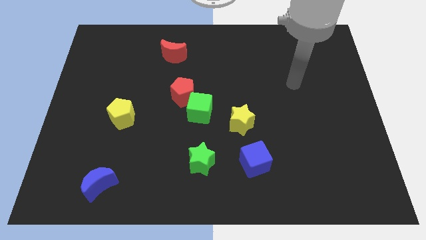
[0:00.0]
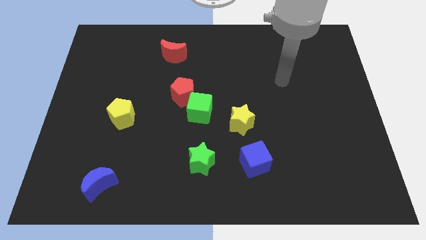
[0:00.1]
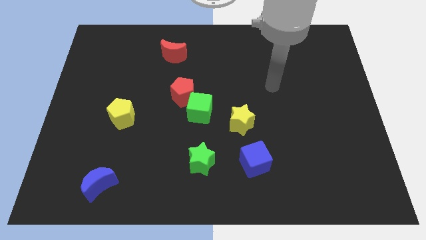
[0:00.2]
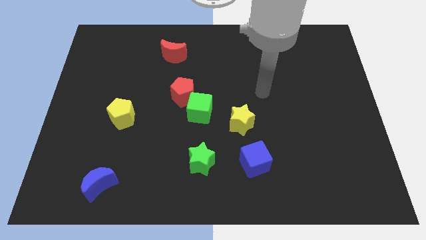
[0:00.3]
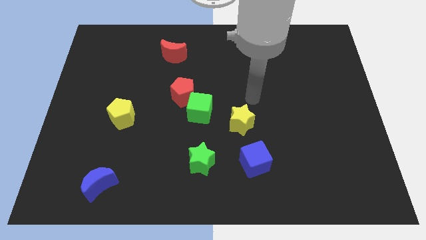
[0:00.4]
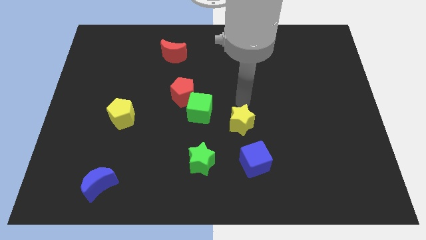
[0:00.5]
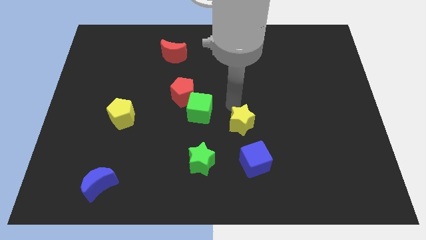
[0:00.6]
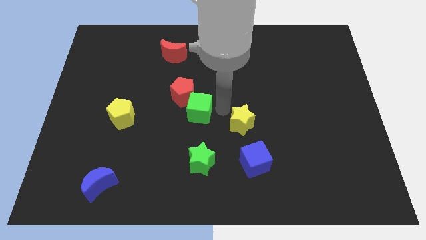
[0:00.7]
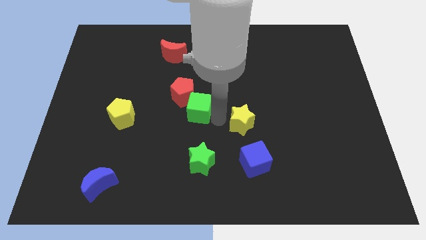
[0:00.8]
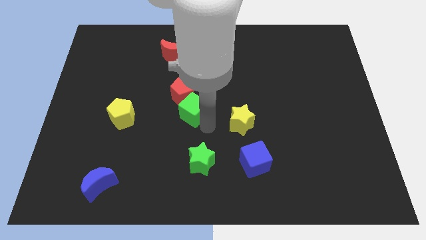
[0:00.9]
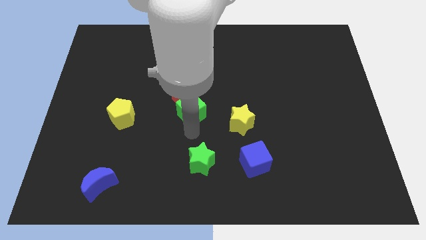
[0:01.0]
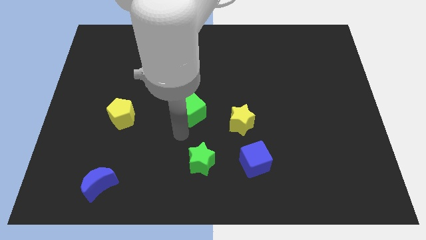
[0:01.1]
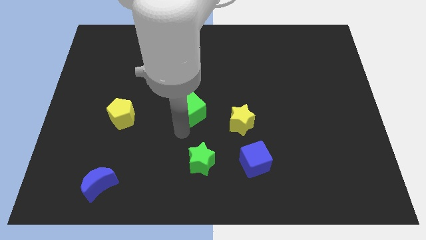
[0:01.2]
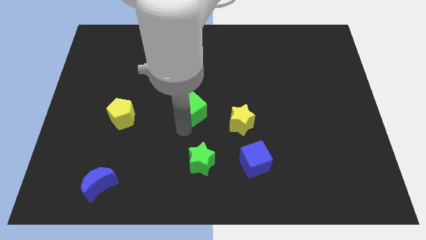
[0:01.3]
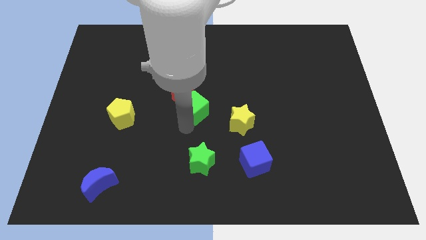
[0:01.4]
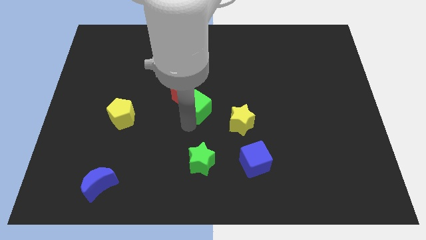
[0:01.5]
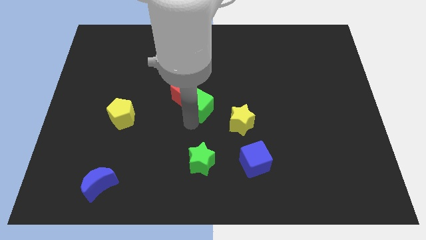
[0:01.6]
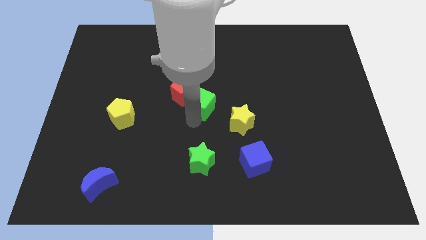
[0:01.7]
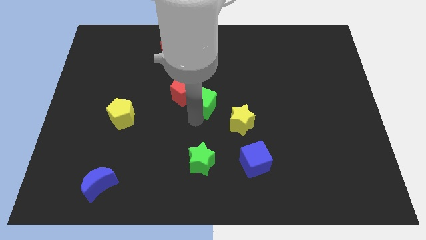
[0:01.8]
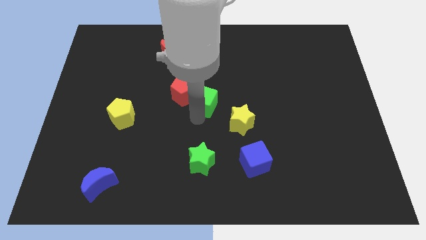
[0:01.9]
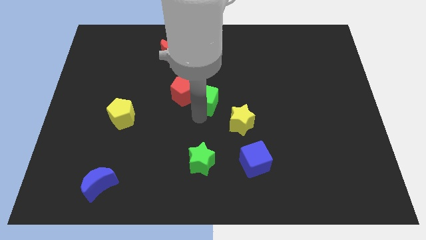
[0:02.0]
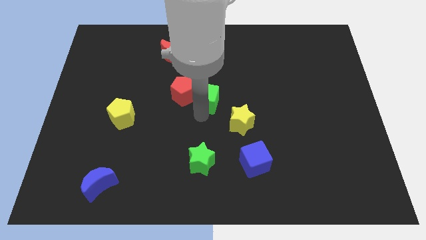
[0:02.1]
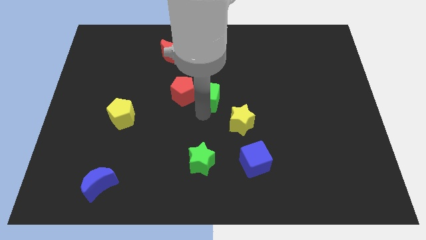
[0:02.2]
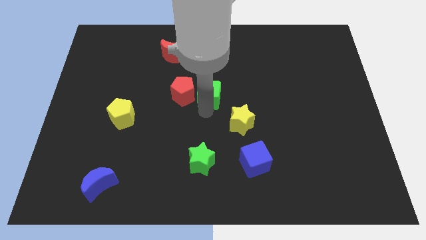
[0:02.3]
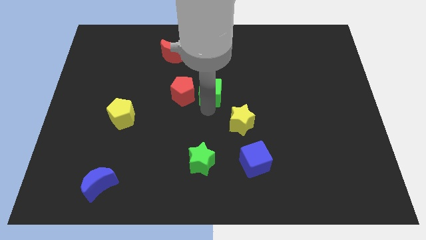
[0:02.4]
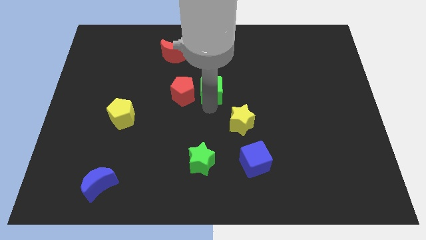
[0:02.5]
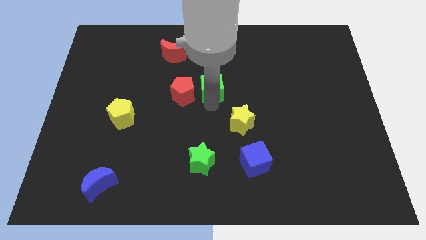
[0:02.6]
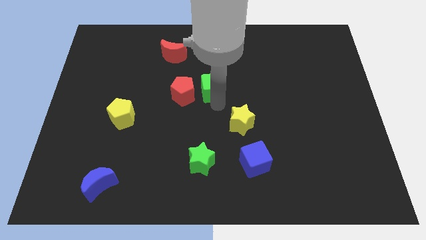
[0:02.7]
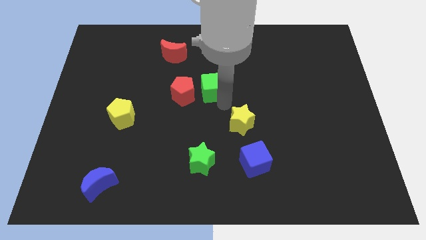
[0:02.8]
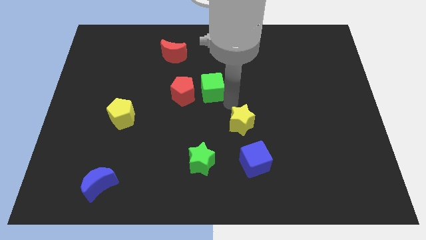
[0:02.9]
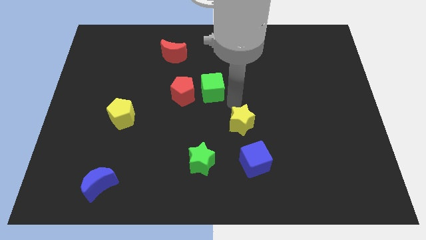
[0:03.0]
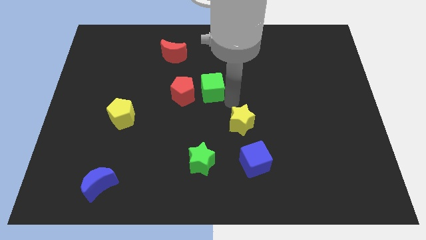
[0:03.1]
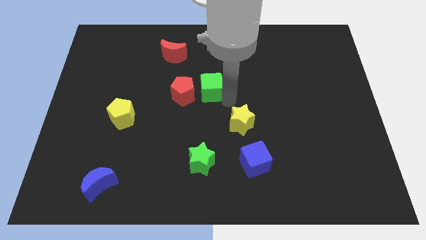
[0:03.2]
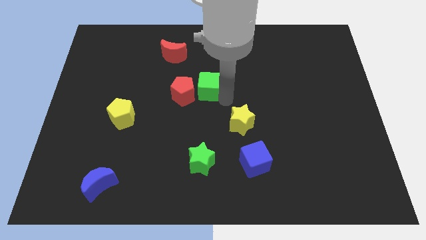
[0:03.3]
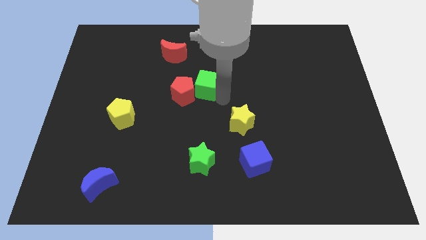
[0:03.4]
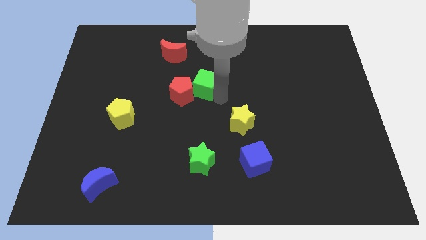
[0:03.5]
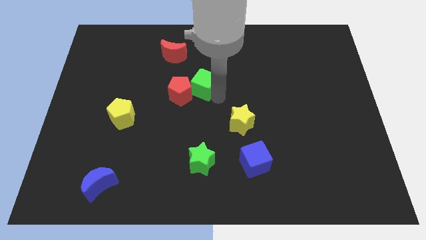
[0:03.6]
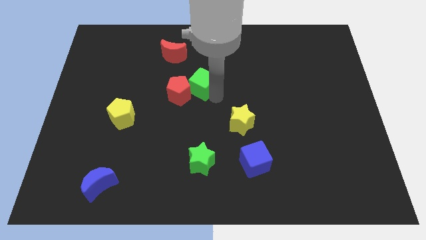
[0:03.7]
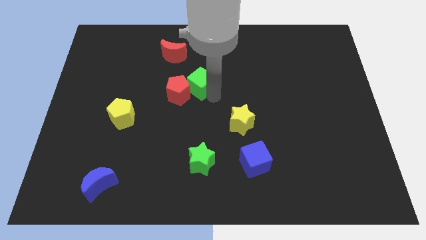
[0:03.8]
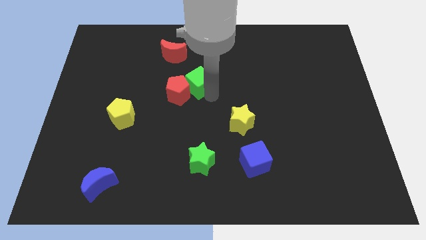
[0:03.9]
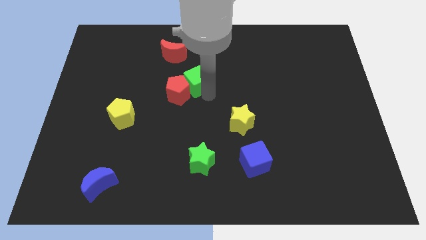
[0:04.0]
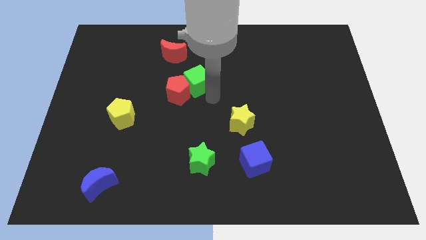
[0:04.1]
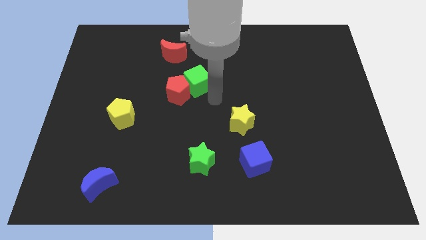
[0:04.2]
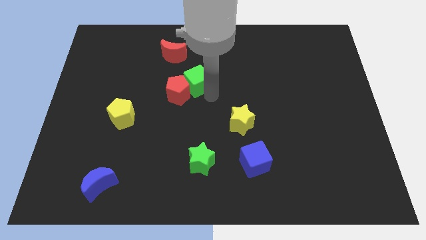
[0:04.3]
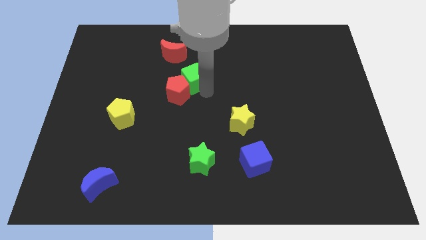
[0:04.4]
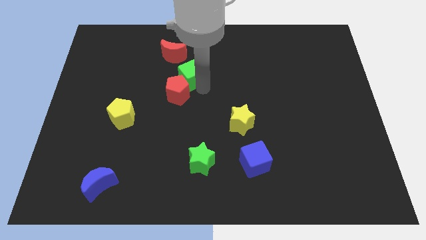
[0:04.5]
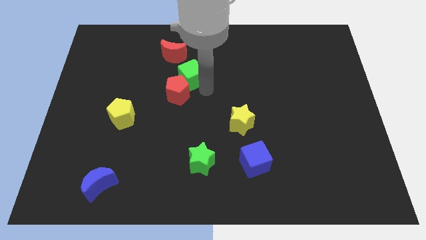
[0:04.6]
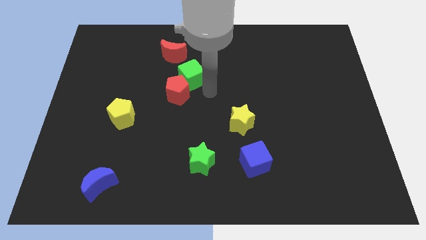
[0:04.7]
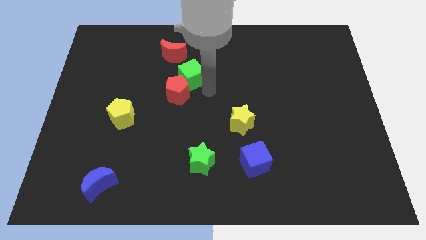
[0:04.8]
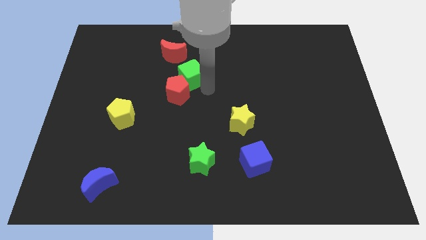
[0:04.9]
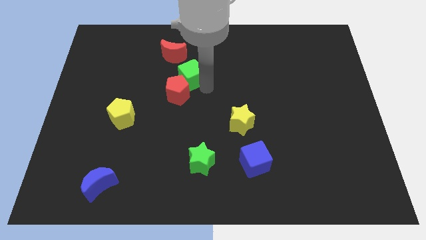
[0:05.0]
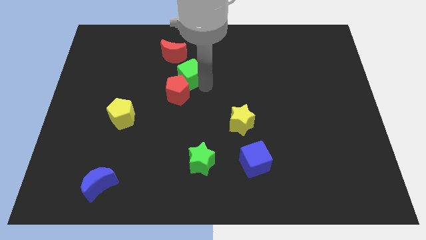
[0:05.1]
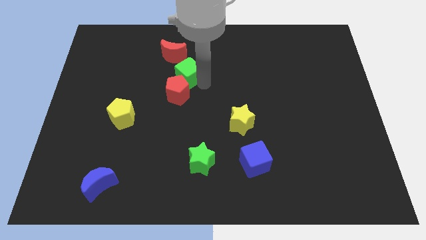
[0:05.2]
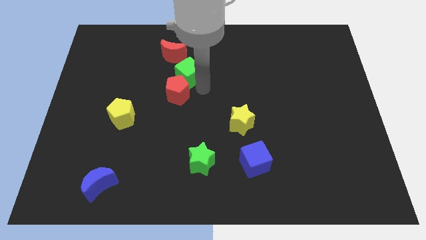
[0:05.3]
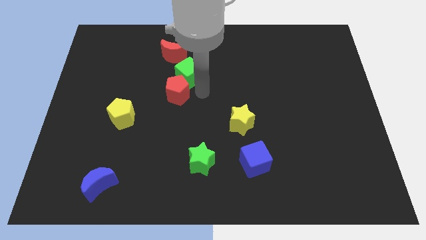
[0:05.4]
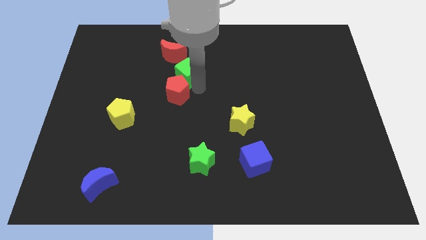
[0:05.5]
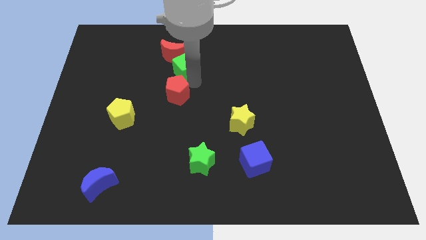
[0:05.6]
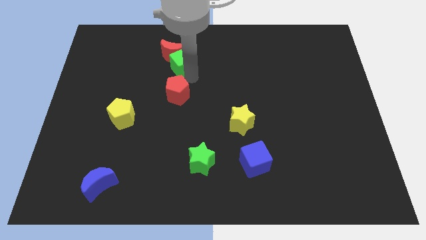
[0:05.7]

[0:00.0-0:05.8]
push the green cube towards the red moon

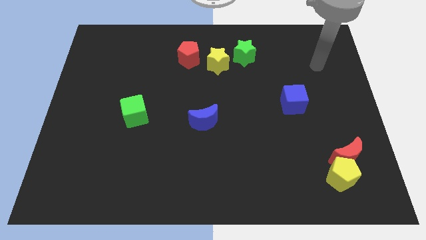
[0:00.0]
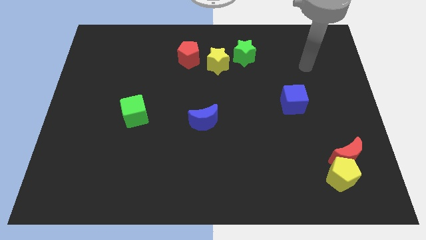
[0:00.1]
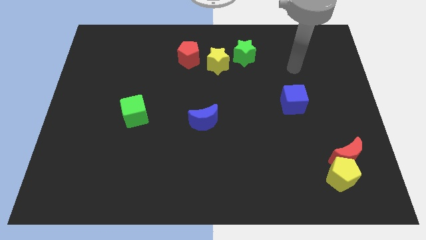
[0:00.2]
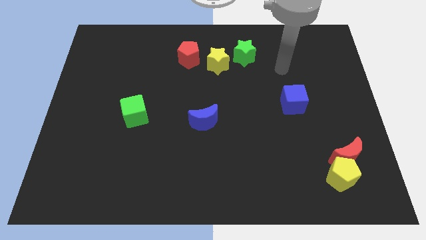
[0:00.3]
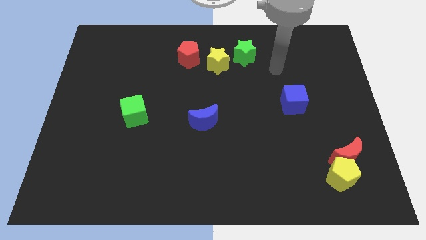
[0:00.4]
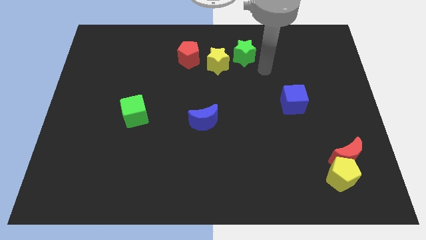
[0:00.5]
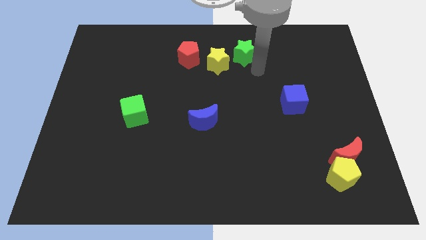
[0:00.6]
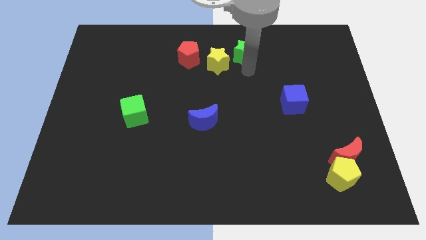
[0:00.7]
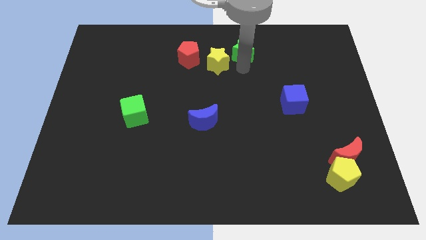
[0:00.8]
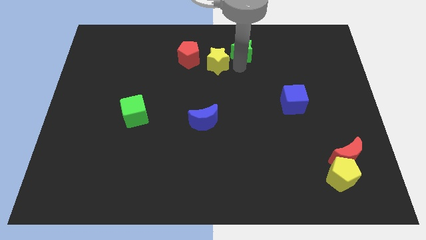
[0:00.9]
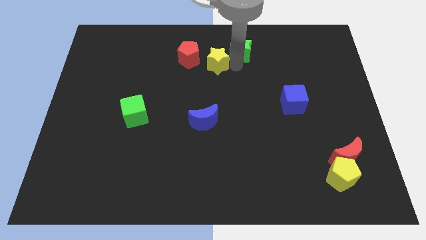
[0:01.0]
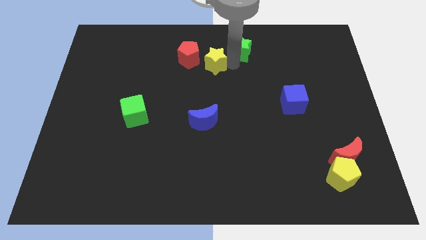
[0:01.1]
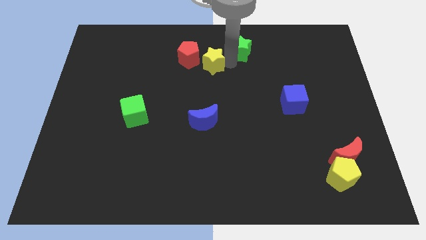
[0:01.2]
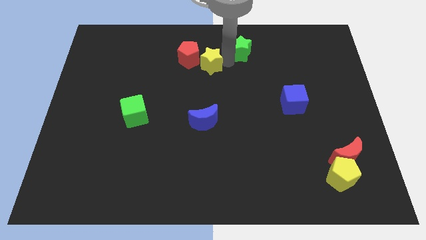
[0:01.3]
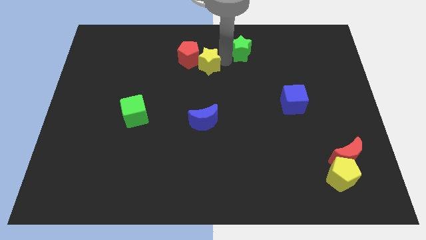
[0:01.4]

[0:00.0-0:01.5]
push the yellow star next to the red pentagon
